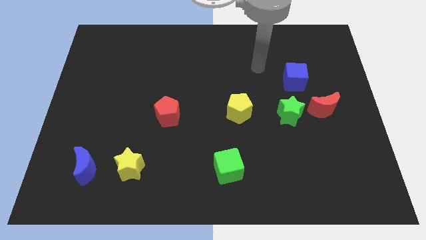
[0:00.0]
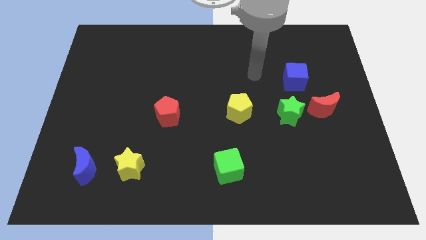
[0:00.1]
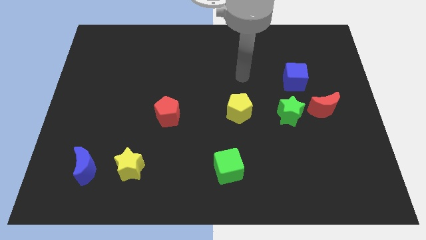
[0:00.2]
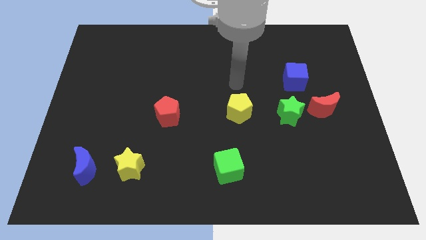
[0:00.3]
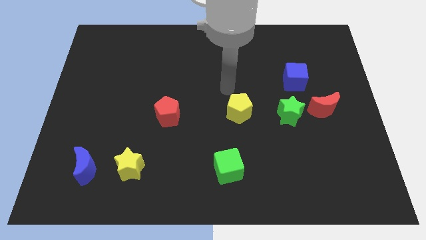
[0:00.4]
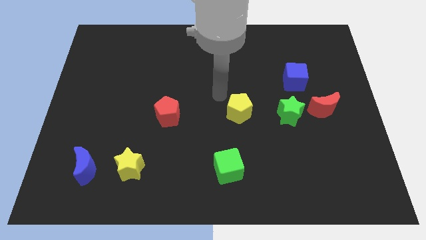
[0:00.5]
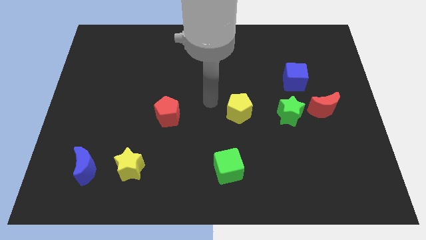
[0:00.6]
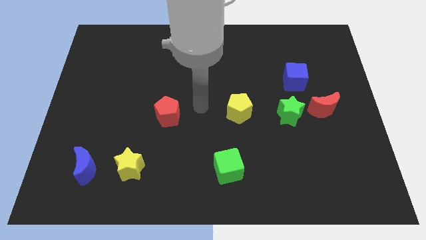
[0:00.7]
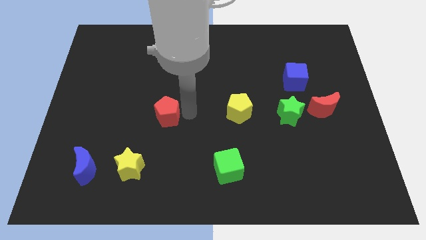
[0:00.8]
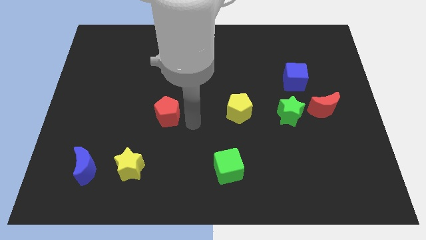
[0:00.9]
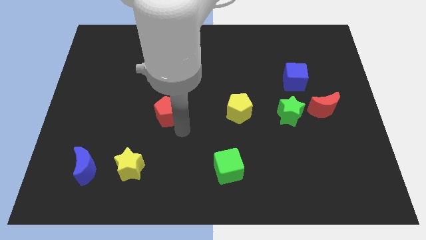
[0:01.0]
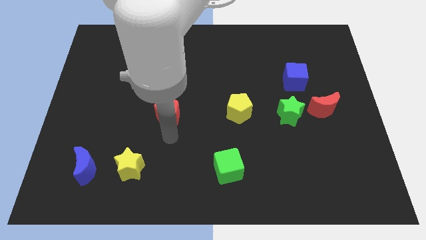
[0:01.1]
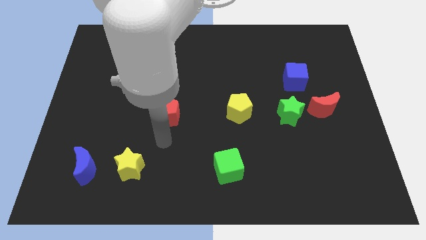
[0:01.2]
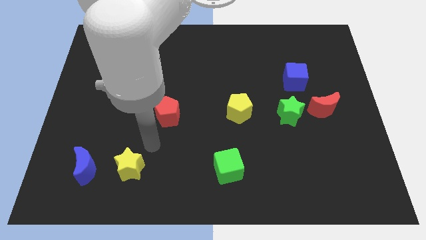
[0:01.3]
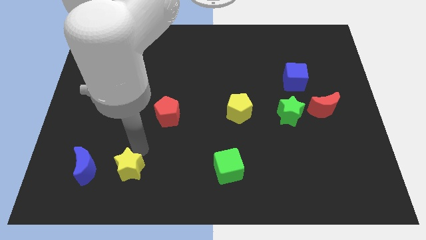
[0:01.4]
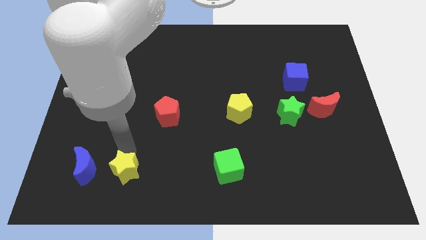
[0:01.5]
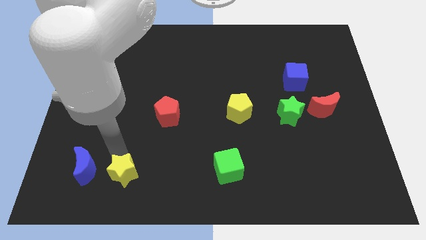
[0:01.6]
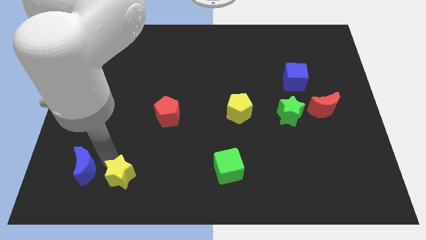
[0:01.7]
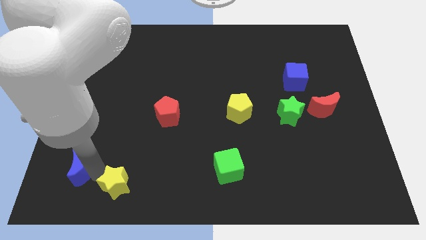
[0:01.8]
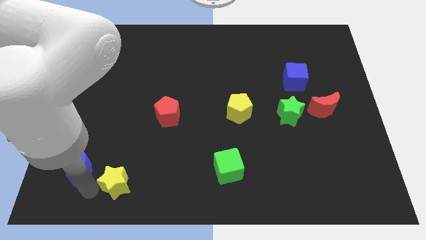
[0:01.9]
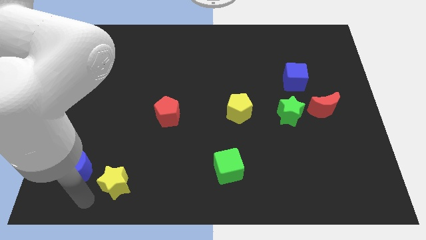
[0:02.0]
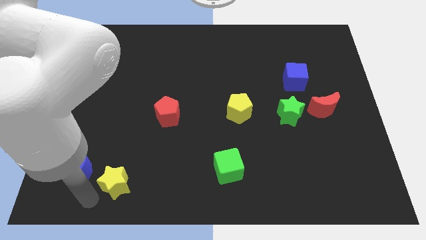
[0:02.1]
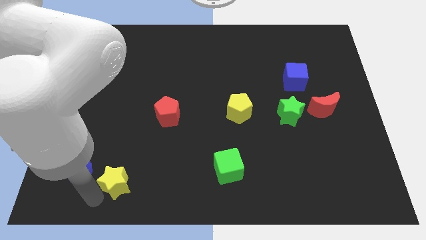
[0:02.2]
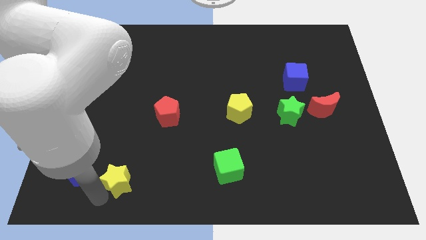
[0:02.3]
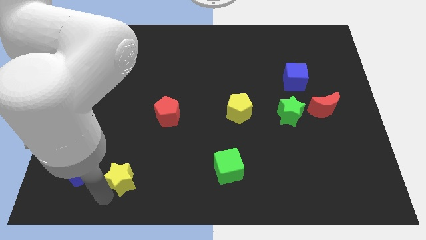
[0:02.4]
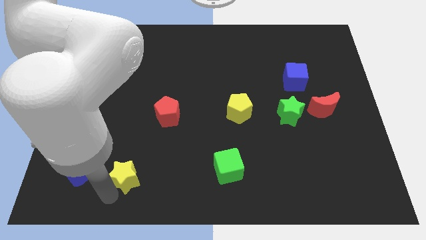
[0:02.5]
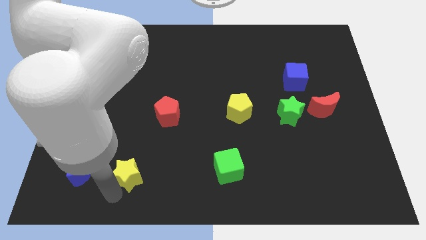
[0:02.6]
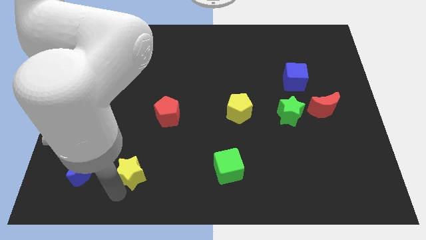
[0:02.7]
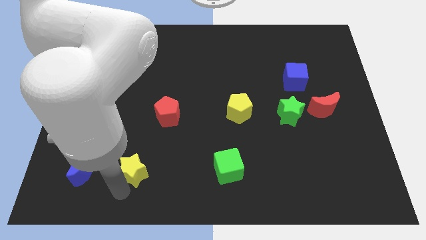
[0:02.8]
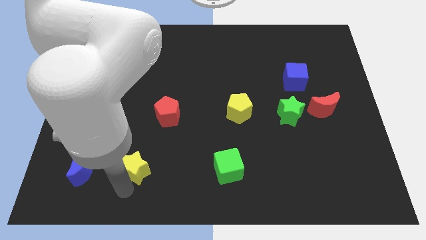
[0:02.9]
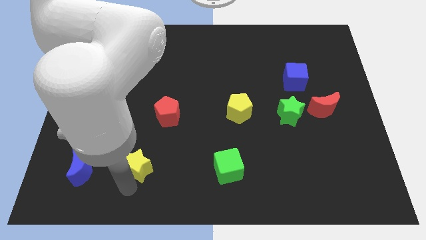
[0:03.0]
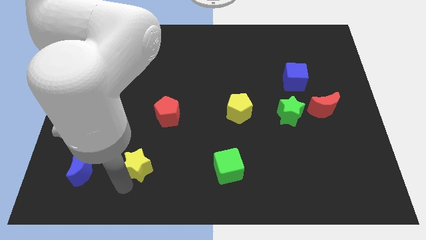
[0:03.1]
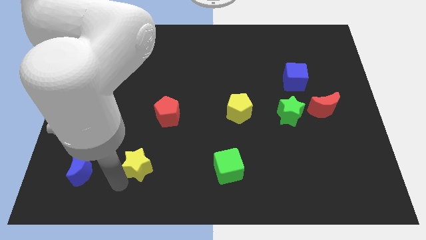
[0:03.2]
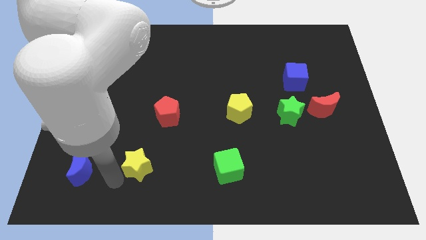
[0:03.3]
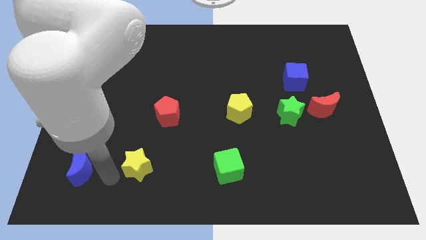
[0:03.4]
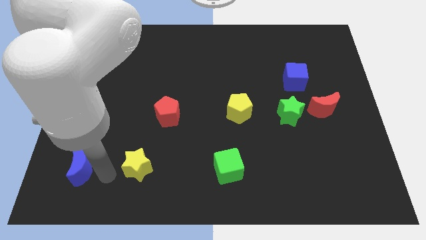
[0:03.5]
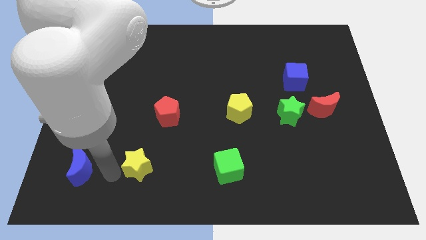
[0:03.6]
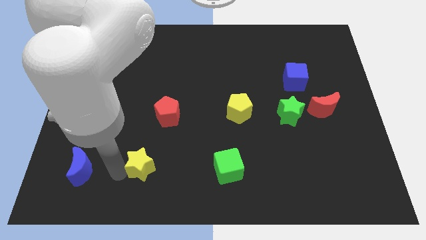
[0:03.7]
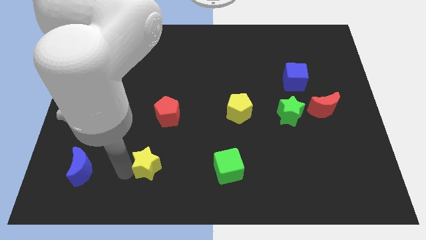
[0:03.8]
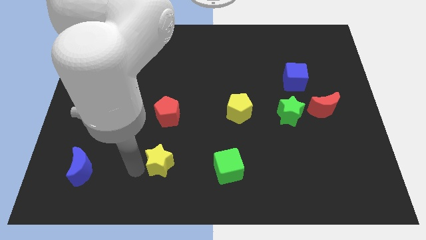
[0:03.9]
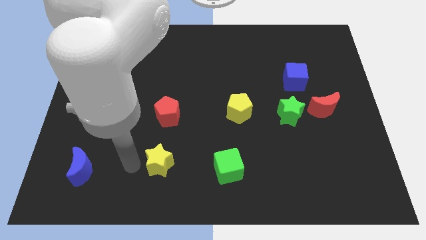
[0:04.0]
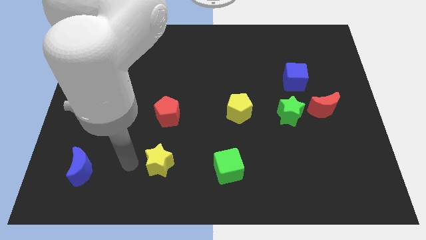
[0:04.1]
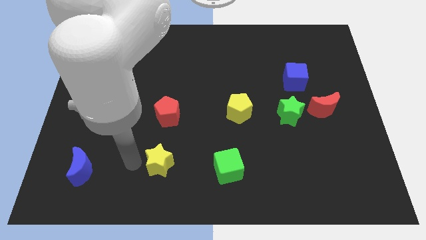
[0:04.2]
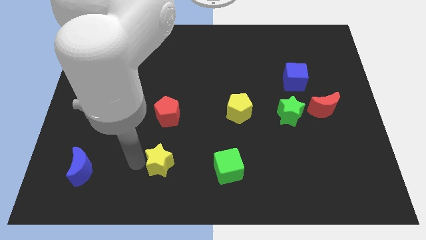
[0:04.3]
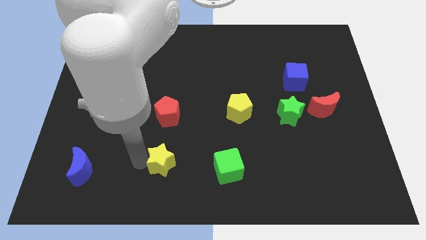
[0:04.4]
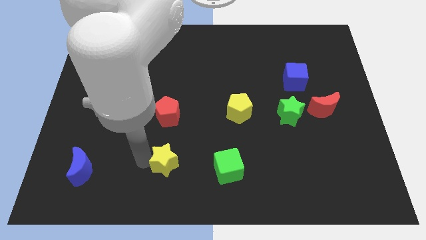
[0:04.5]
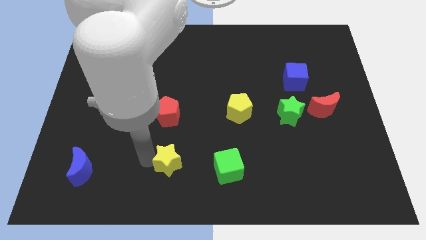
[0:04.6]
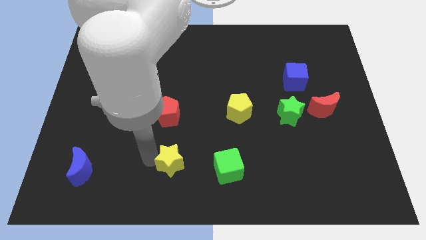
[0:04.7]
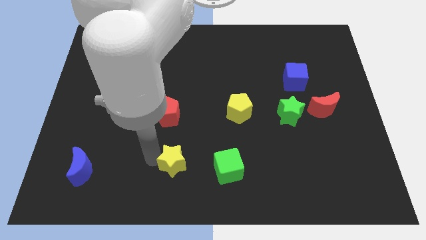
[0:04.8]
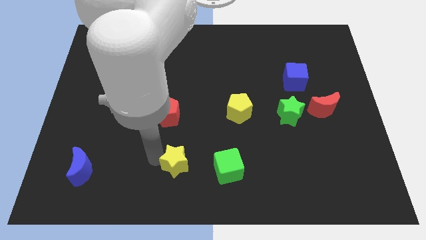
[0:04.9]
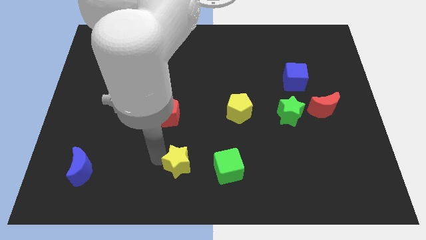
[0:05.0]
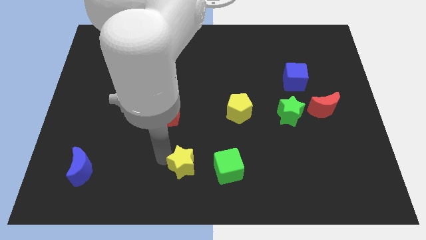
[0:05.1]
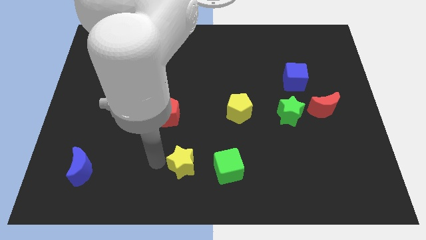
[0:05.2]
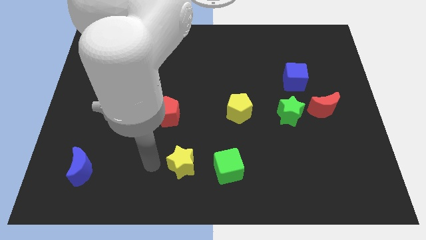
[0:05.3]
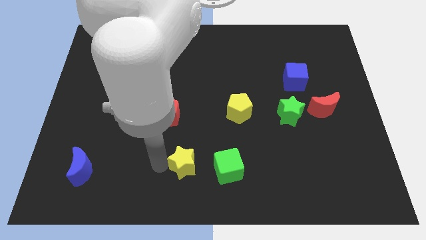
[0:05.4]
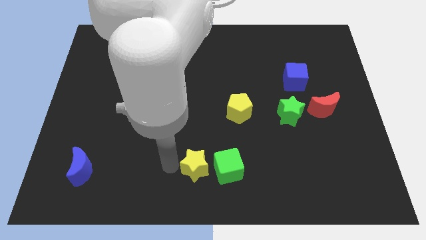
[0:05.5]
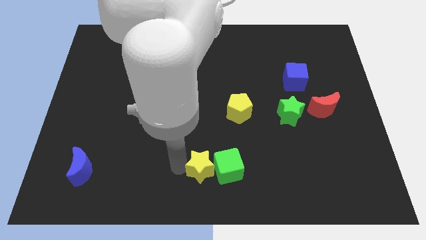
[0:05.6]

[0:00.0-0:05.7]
push the yellow star to the green cube

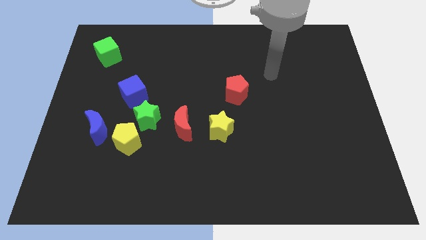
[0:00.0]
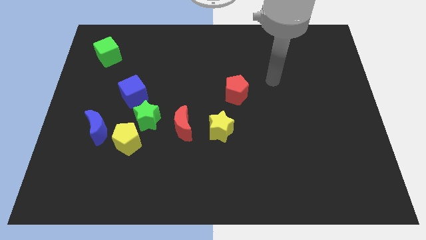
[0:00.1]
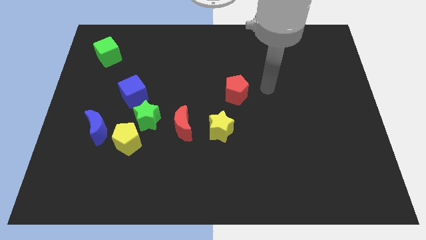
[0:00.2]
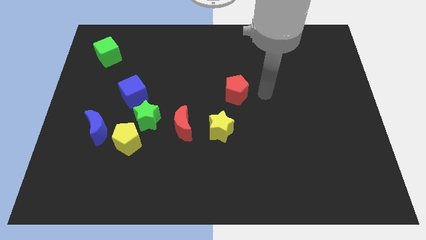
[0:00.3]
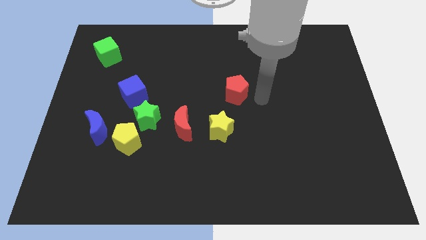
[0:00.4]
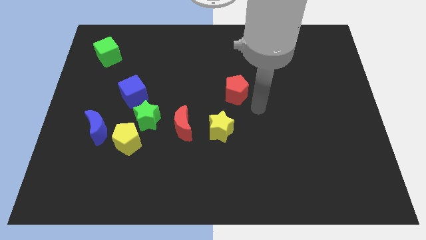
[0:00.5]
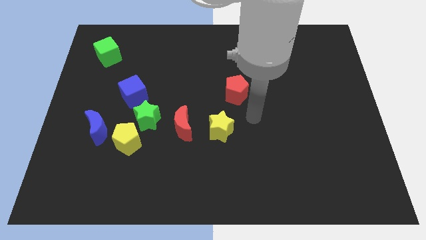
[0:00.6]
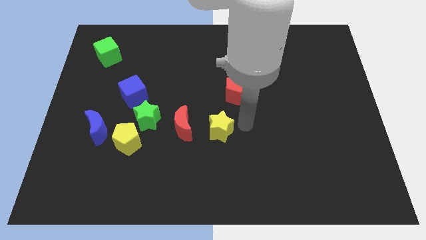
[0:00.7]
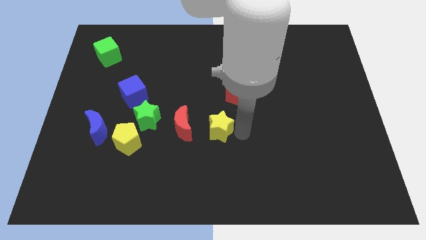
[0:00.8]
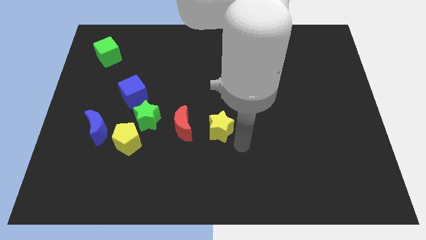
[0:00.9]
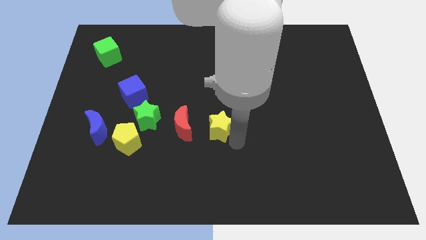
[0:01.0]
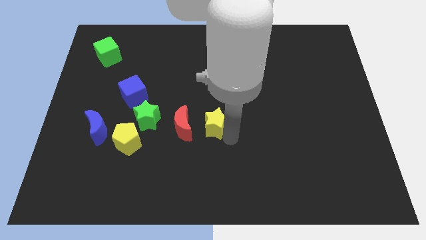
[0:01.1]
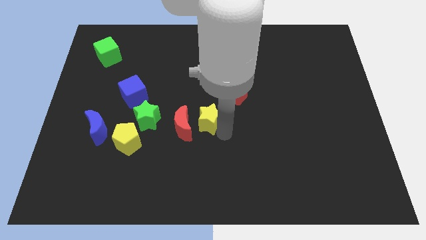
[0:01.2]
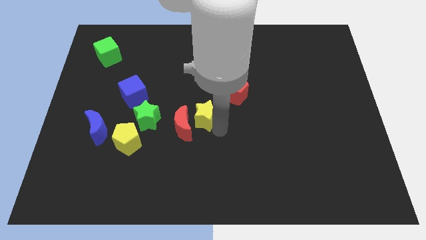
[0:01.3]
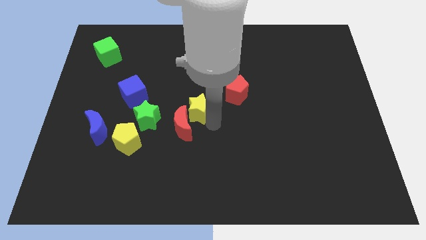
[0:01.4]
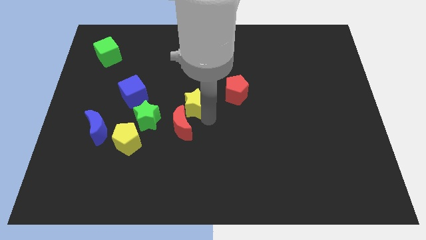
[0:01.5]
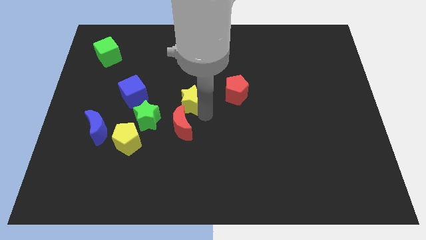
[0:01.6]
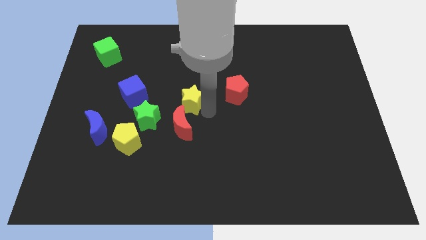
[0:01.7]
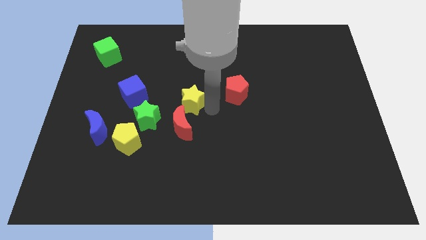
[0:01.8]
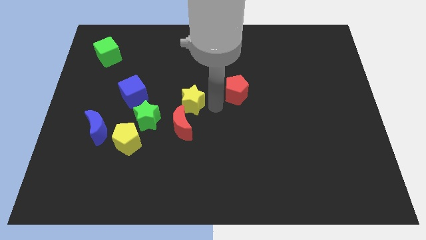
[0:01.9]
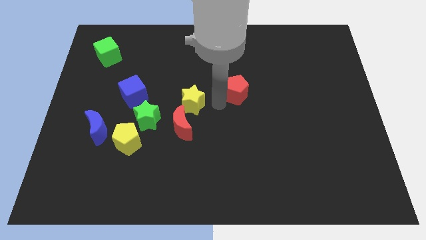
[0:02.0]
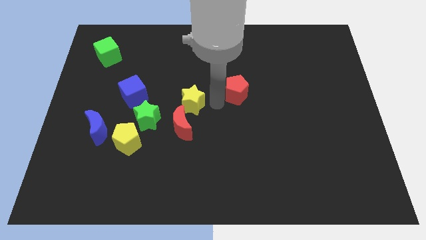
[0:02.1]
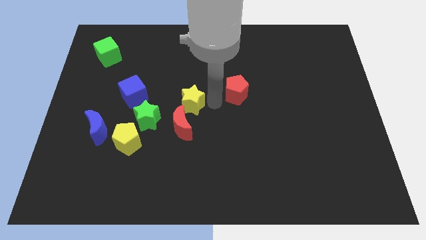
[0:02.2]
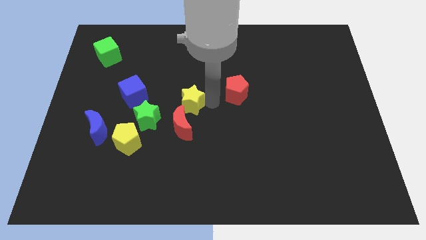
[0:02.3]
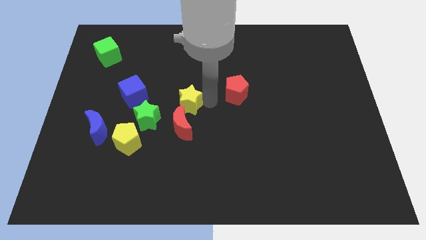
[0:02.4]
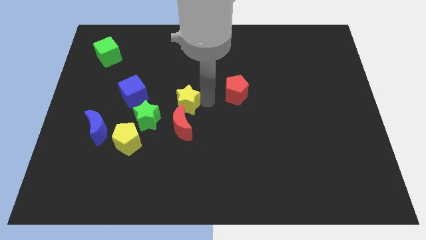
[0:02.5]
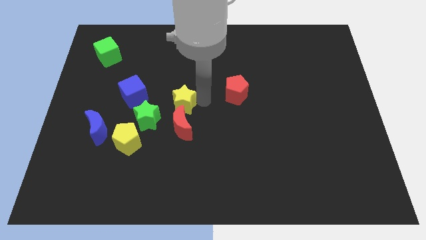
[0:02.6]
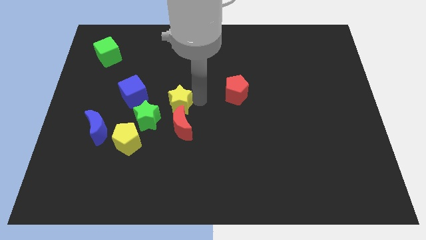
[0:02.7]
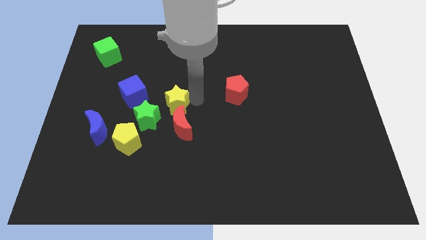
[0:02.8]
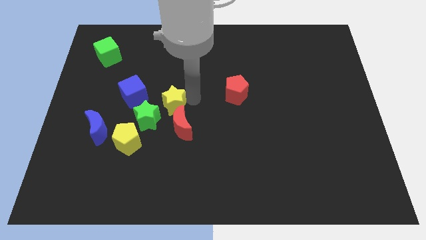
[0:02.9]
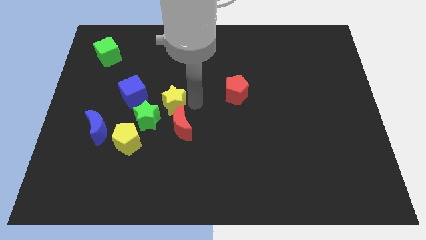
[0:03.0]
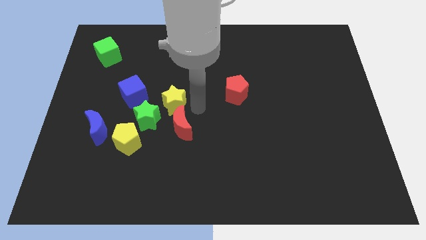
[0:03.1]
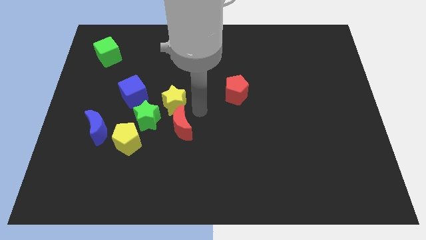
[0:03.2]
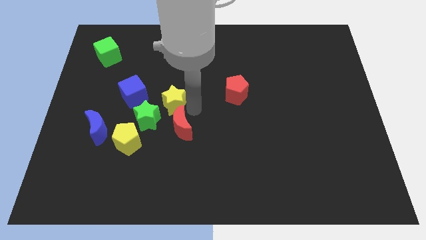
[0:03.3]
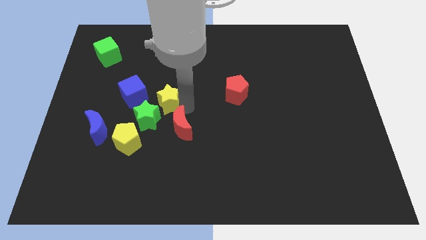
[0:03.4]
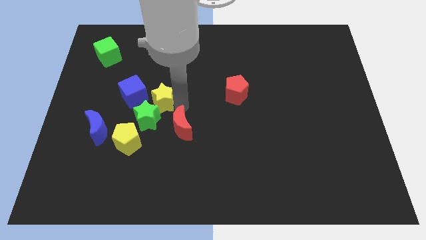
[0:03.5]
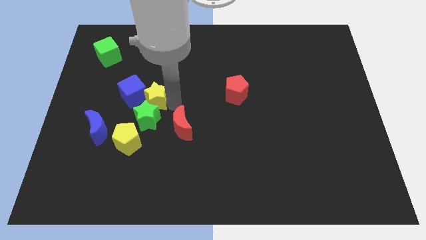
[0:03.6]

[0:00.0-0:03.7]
push the yellow star close to the blue cube
